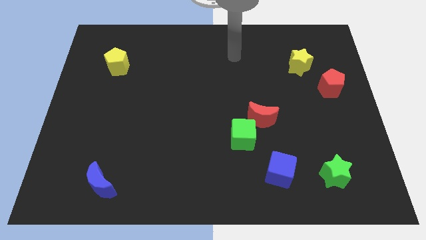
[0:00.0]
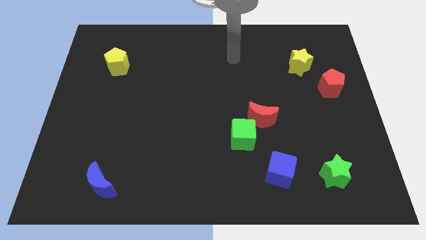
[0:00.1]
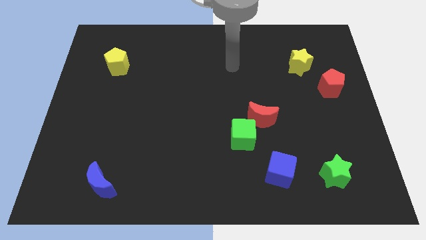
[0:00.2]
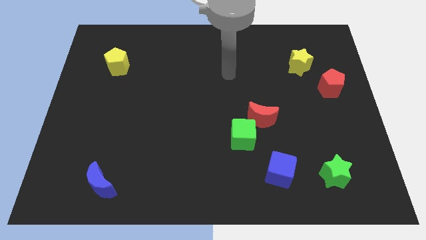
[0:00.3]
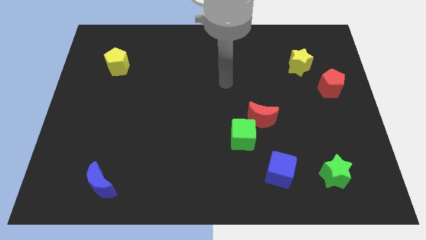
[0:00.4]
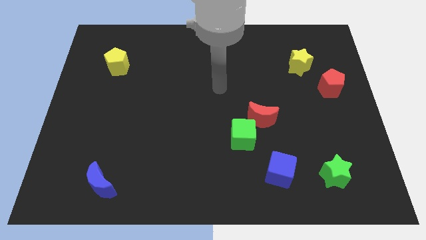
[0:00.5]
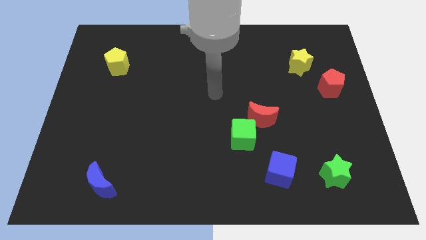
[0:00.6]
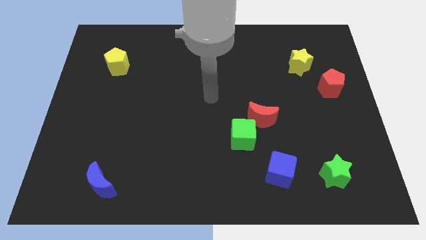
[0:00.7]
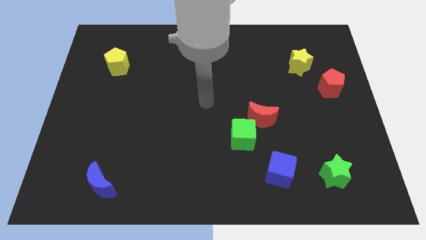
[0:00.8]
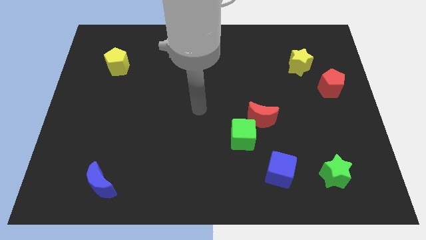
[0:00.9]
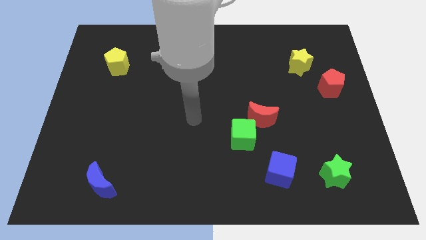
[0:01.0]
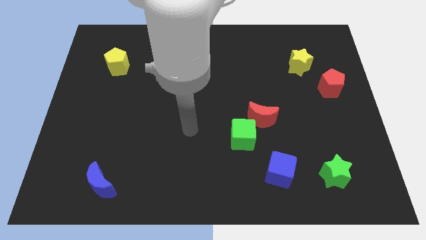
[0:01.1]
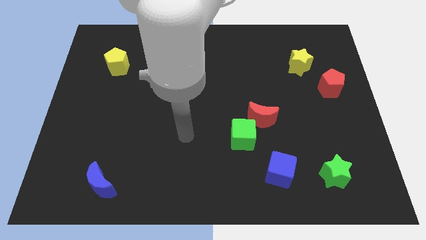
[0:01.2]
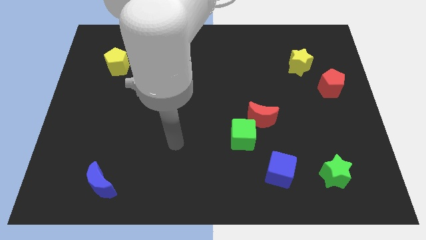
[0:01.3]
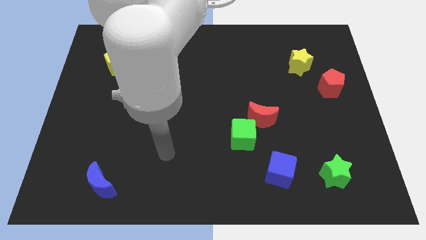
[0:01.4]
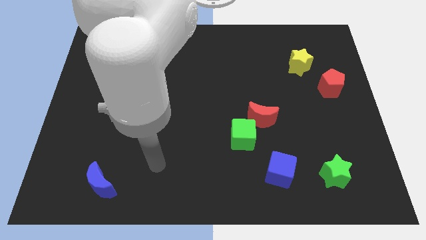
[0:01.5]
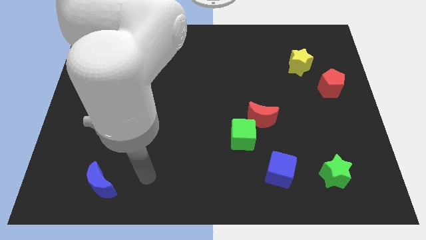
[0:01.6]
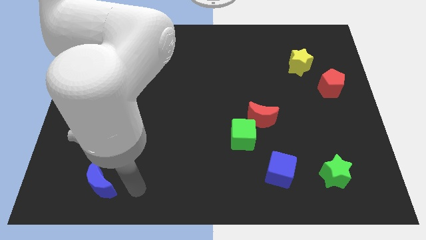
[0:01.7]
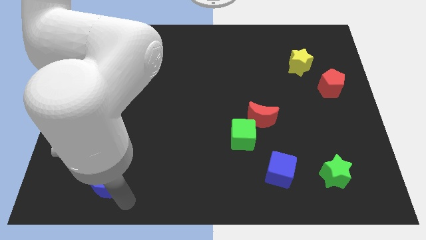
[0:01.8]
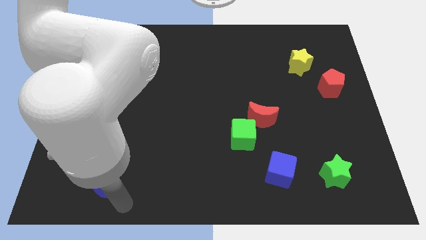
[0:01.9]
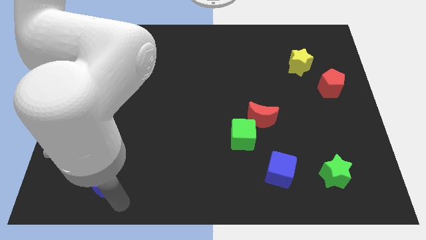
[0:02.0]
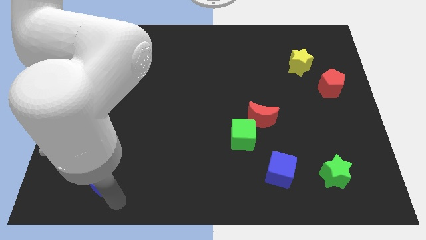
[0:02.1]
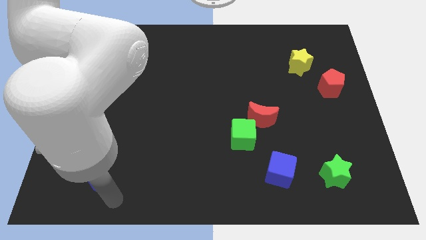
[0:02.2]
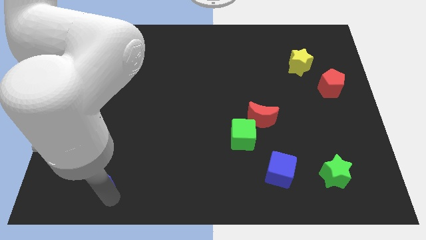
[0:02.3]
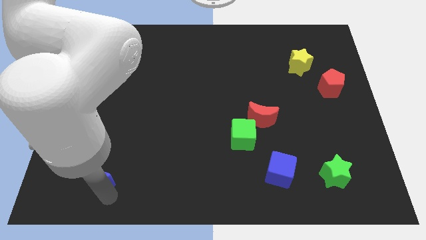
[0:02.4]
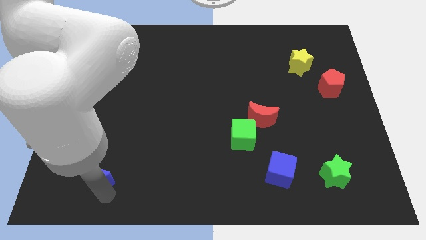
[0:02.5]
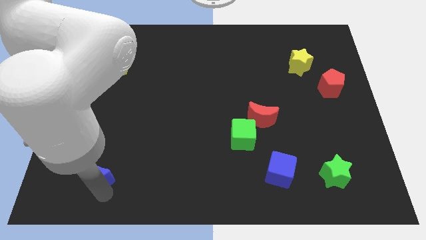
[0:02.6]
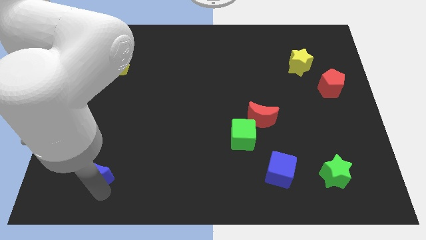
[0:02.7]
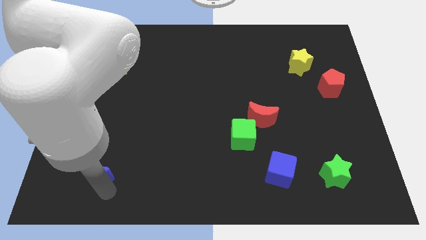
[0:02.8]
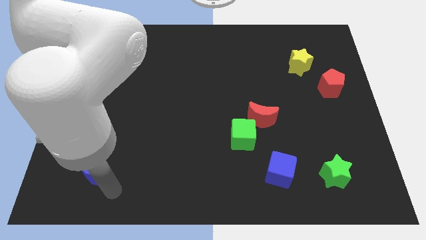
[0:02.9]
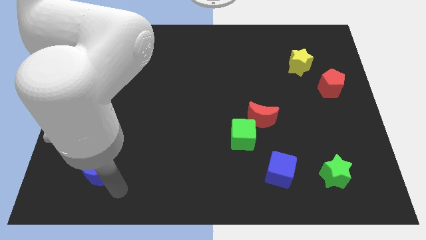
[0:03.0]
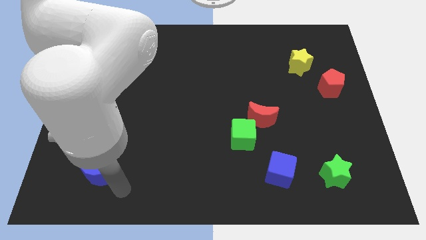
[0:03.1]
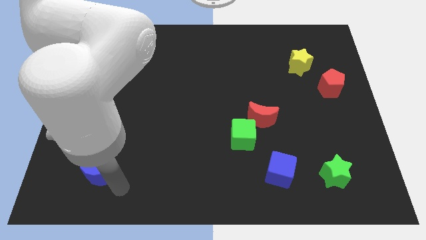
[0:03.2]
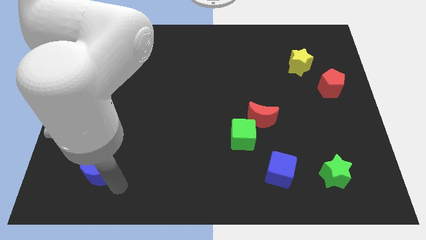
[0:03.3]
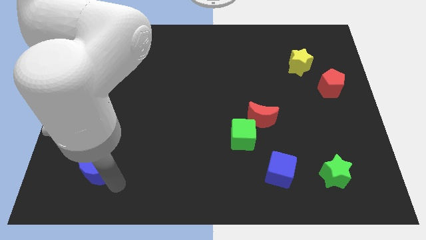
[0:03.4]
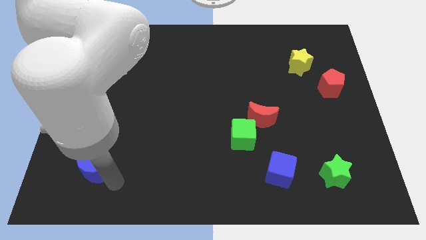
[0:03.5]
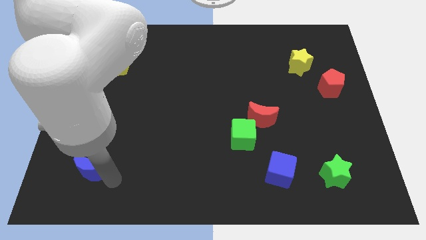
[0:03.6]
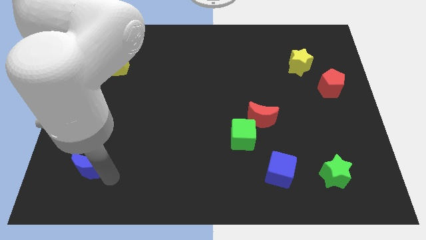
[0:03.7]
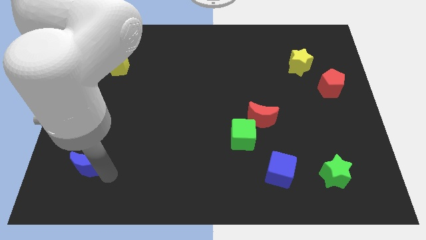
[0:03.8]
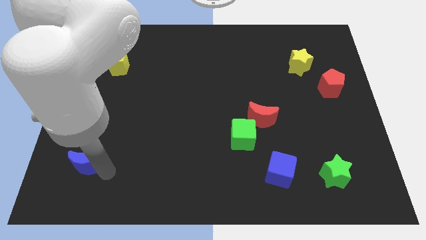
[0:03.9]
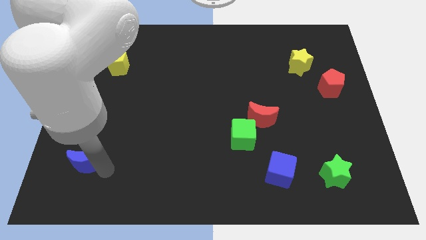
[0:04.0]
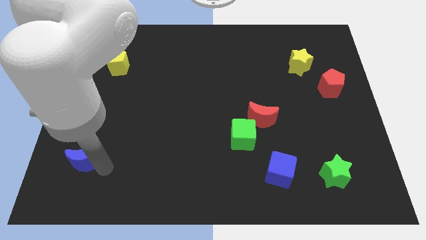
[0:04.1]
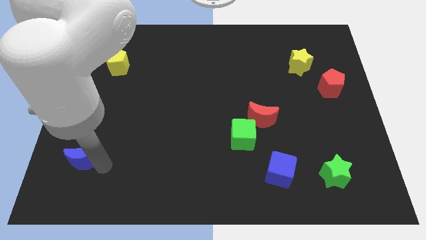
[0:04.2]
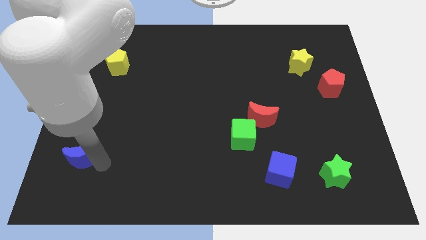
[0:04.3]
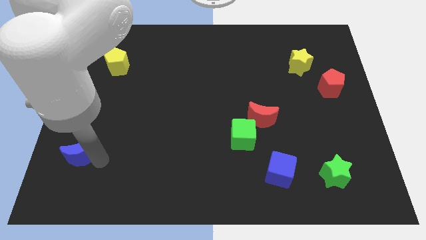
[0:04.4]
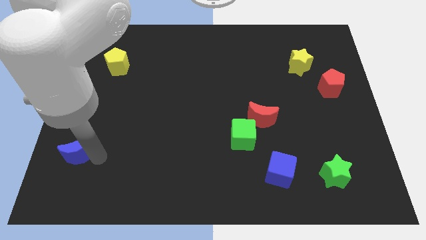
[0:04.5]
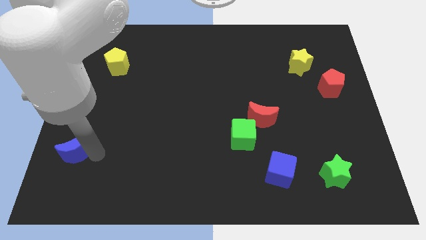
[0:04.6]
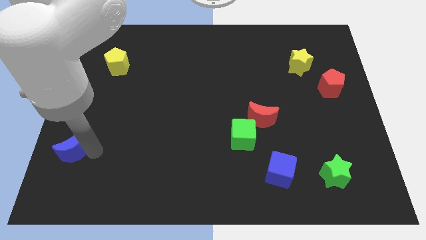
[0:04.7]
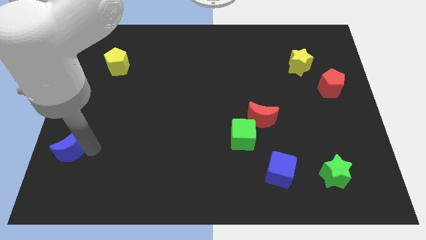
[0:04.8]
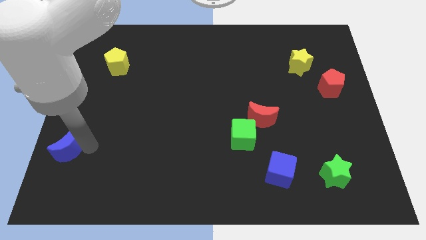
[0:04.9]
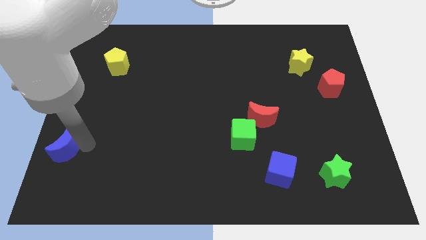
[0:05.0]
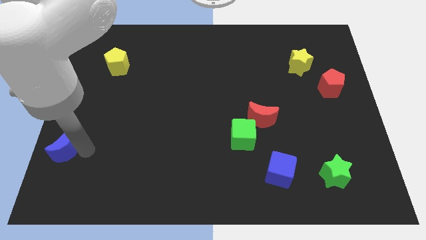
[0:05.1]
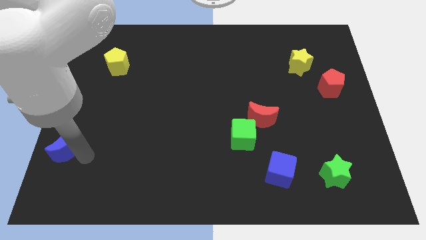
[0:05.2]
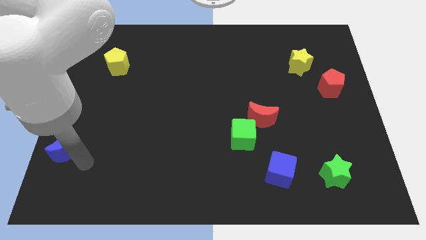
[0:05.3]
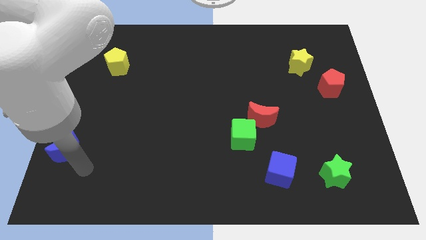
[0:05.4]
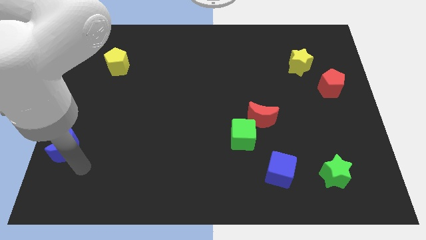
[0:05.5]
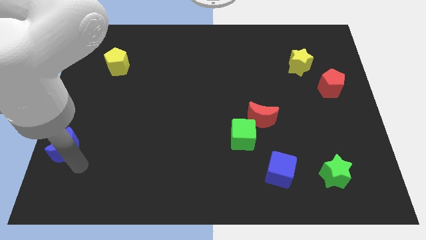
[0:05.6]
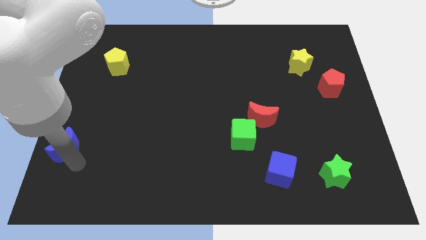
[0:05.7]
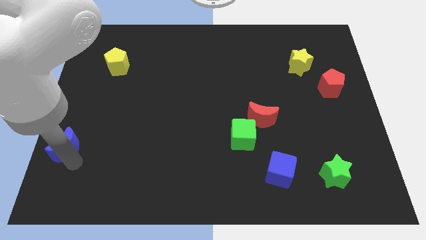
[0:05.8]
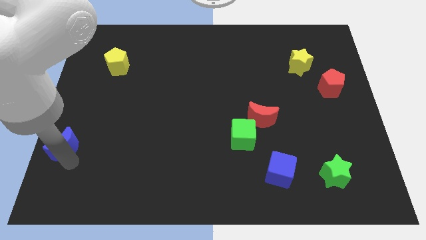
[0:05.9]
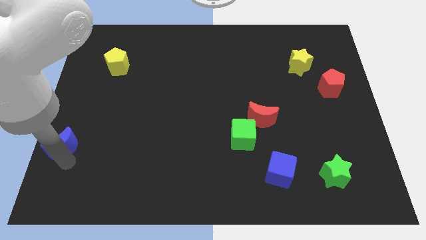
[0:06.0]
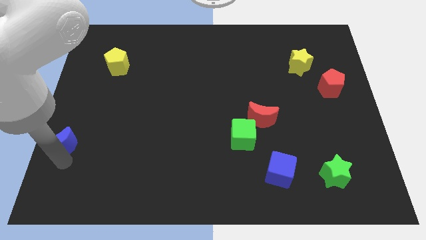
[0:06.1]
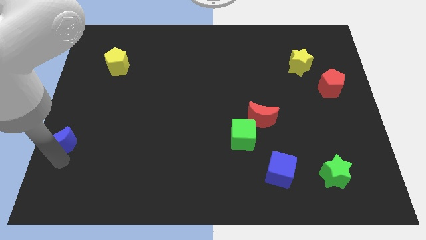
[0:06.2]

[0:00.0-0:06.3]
put the blue moon to the center left

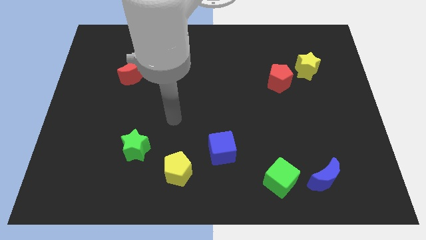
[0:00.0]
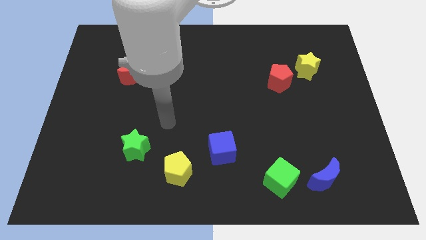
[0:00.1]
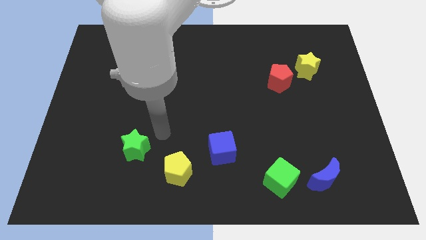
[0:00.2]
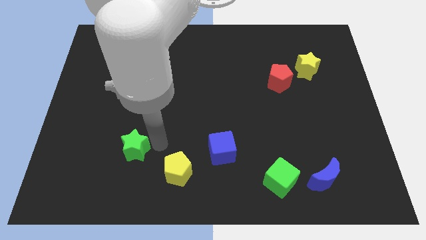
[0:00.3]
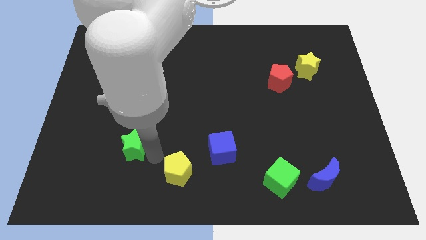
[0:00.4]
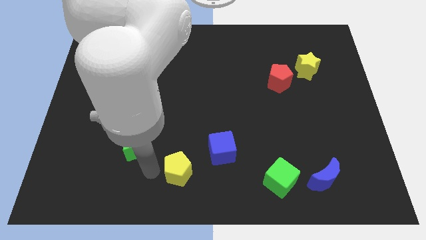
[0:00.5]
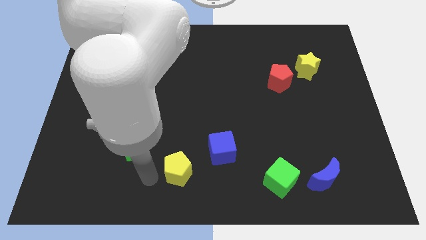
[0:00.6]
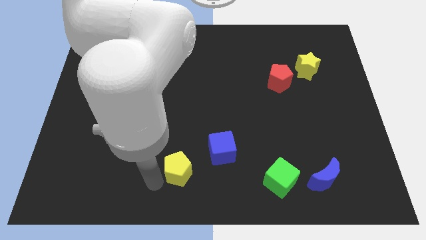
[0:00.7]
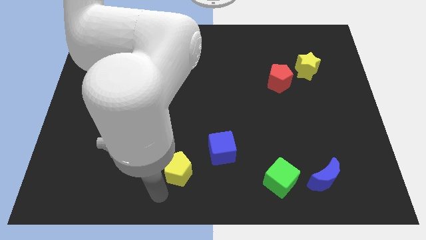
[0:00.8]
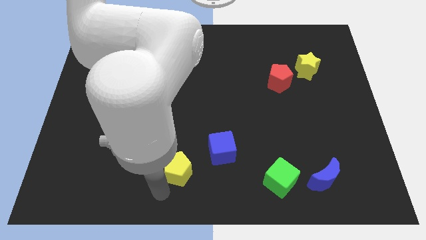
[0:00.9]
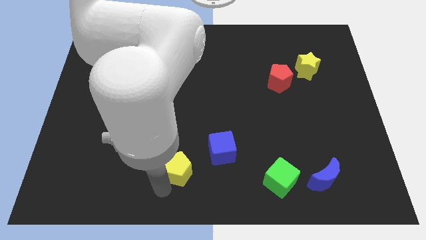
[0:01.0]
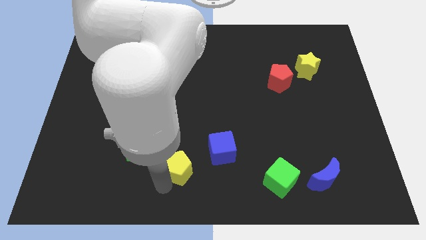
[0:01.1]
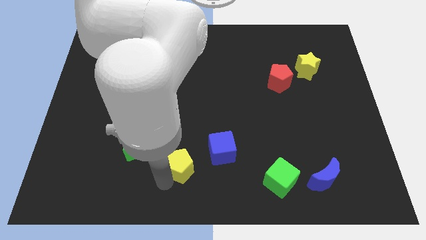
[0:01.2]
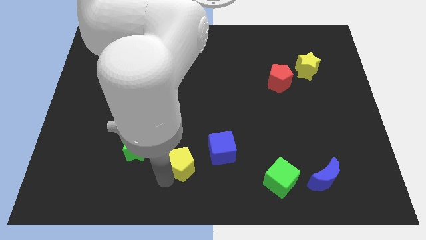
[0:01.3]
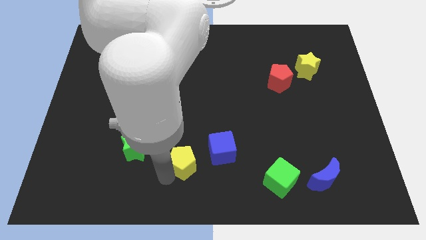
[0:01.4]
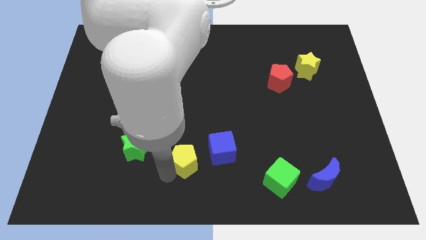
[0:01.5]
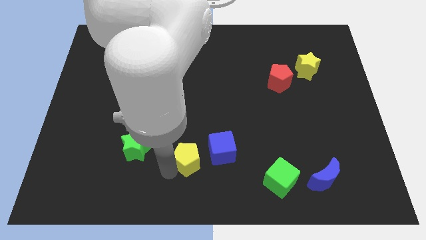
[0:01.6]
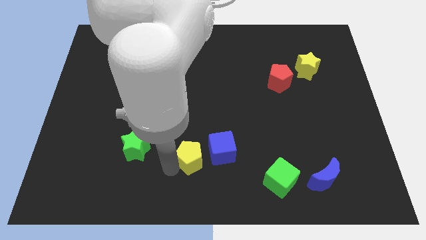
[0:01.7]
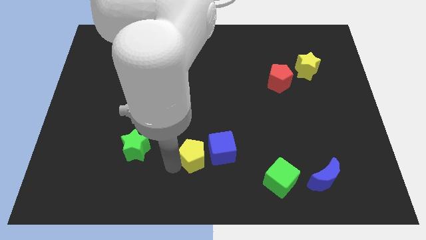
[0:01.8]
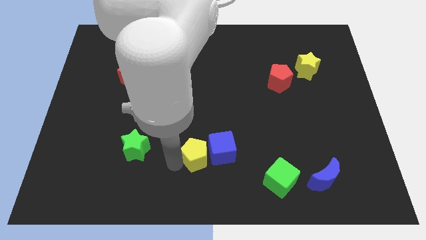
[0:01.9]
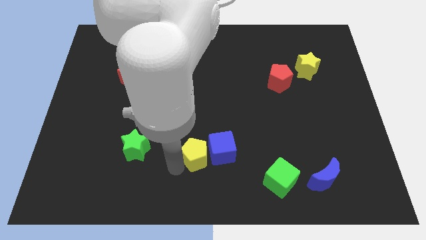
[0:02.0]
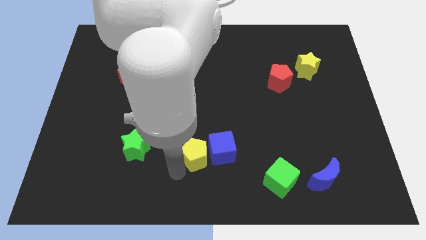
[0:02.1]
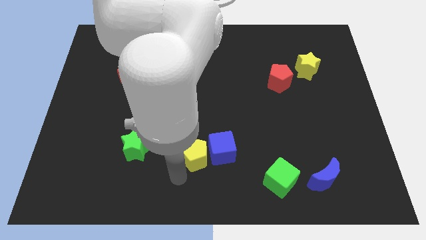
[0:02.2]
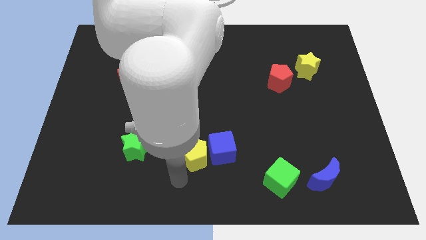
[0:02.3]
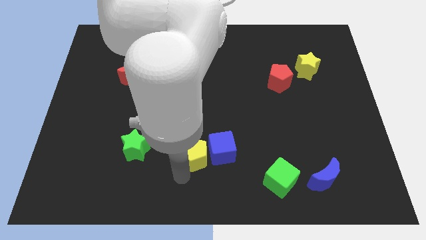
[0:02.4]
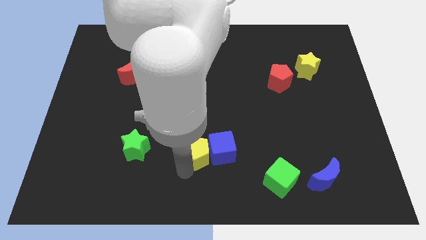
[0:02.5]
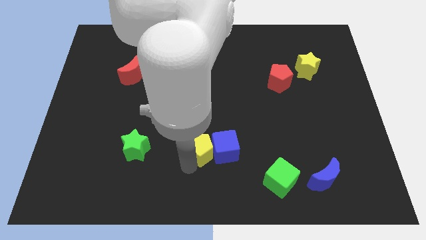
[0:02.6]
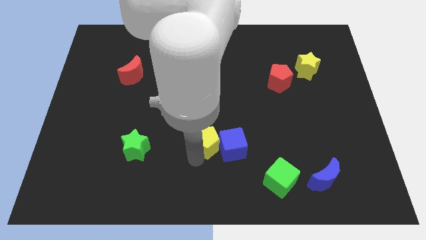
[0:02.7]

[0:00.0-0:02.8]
move the yellow pentagon to the middle of the board
